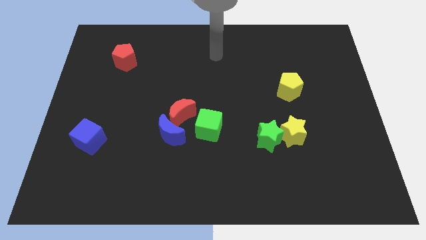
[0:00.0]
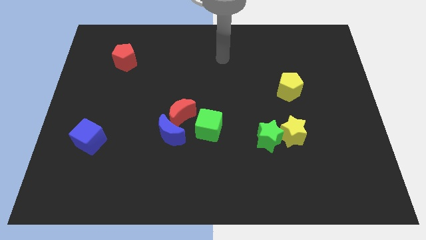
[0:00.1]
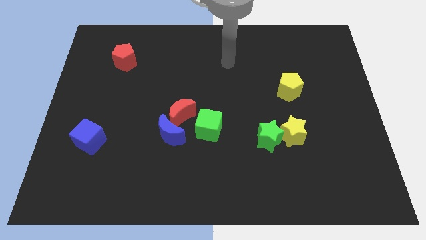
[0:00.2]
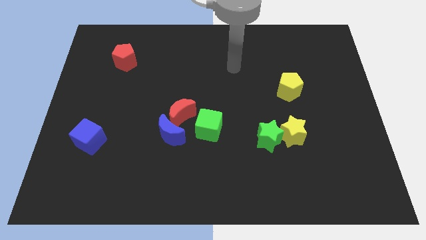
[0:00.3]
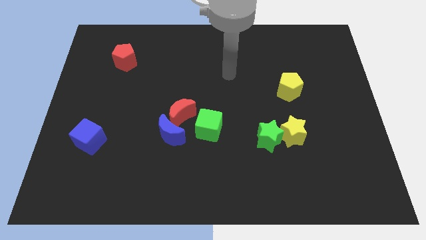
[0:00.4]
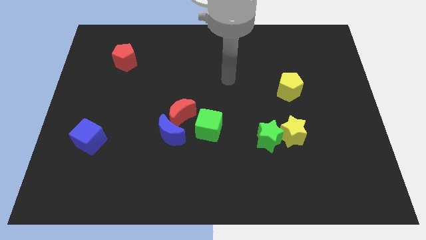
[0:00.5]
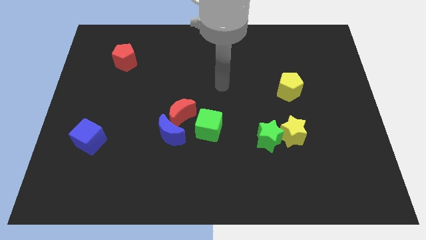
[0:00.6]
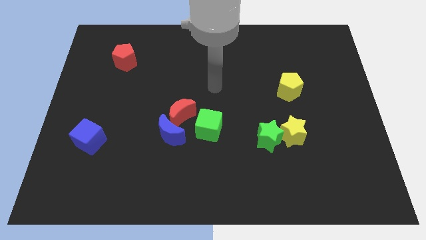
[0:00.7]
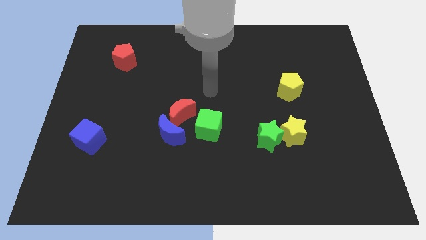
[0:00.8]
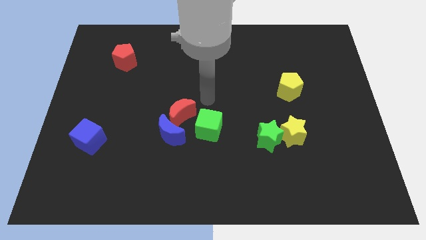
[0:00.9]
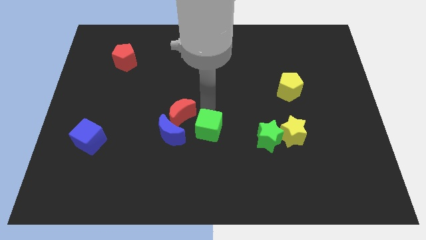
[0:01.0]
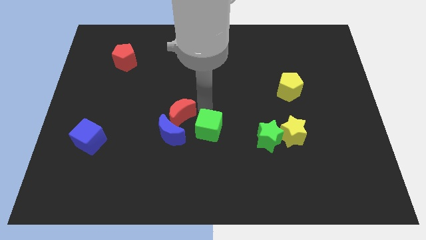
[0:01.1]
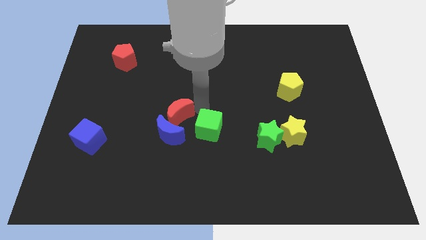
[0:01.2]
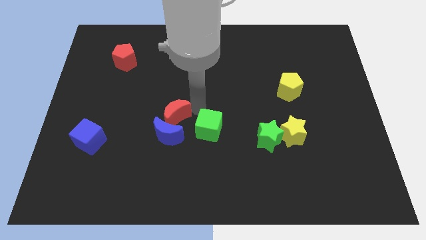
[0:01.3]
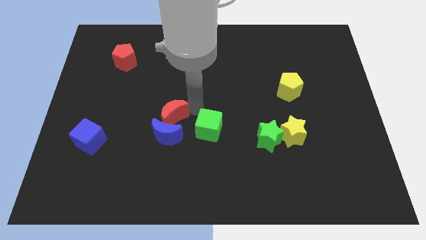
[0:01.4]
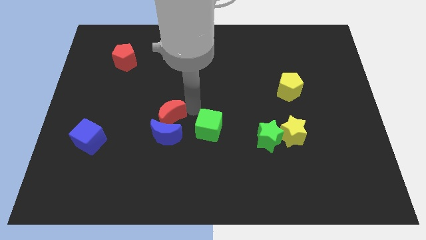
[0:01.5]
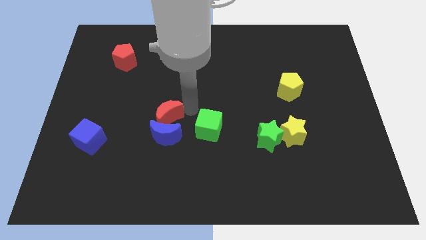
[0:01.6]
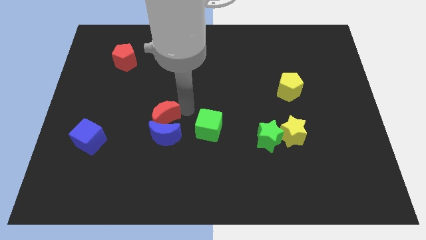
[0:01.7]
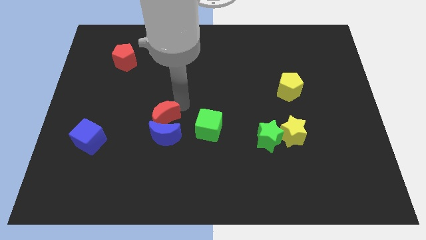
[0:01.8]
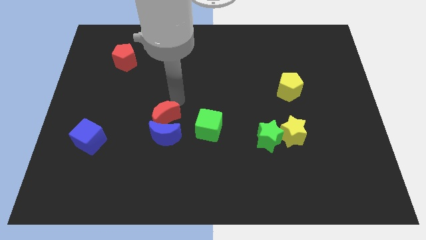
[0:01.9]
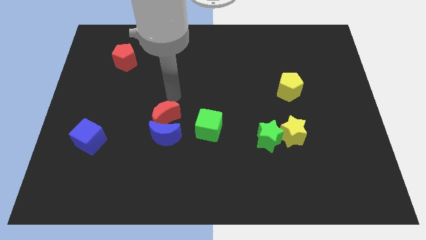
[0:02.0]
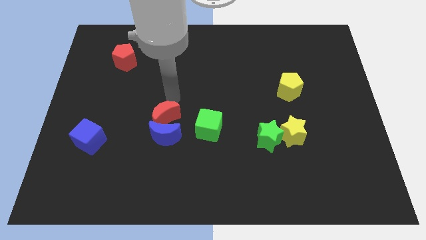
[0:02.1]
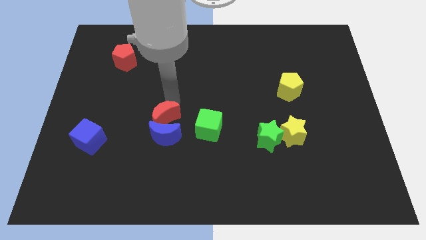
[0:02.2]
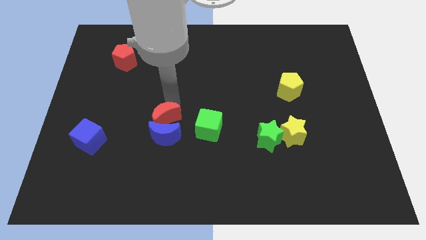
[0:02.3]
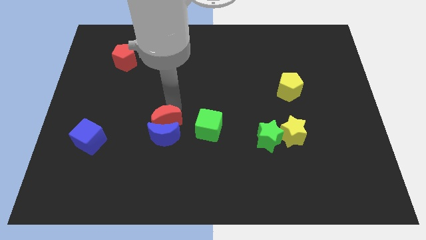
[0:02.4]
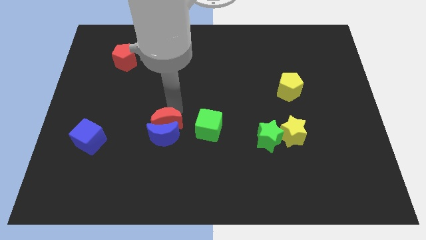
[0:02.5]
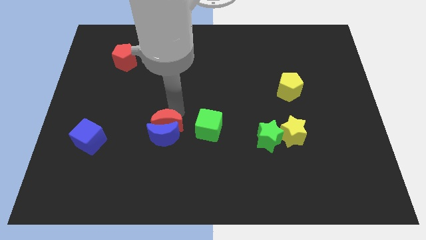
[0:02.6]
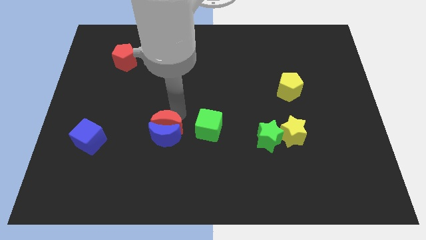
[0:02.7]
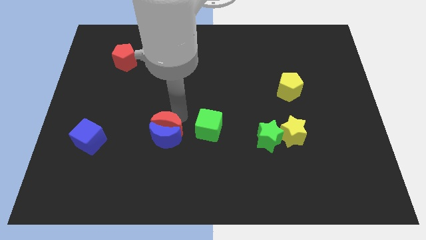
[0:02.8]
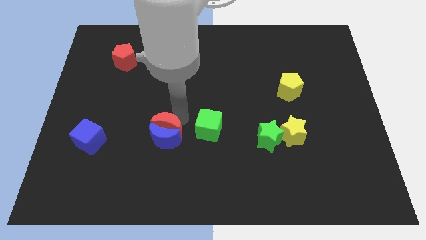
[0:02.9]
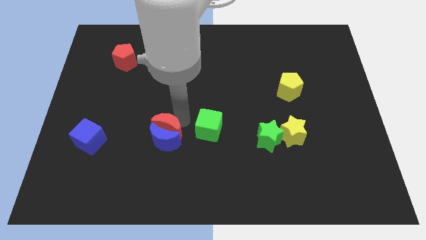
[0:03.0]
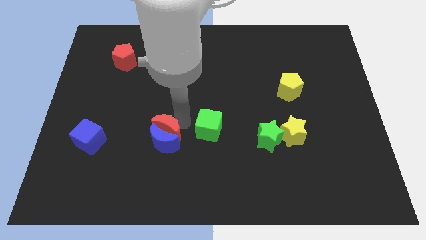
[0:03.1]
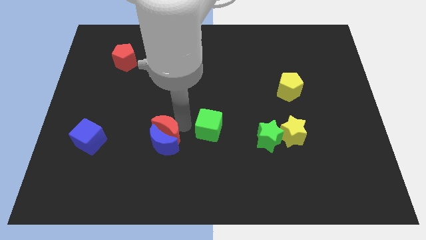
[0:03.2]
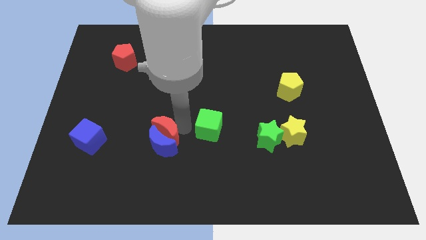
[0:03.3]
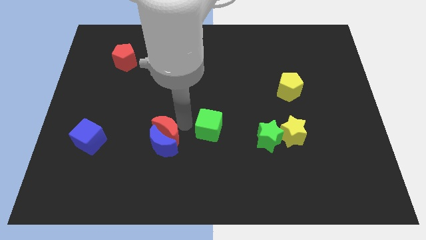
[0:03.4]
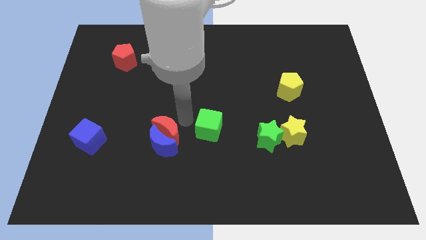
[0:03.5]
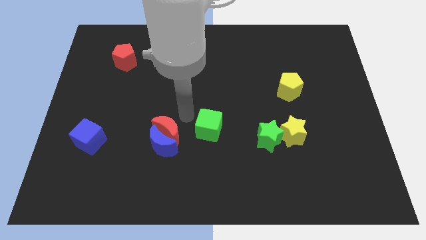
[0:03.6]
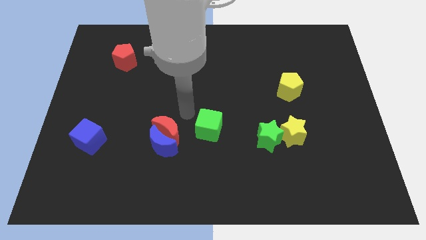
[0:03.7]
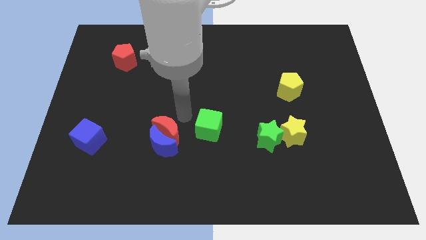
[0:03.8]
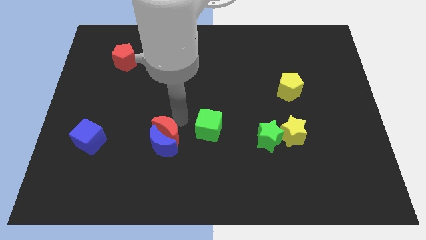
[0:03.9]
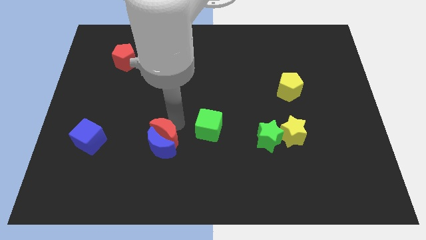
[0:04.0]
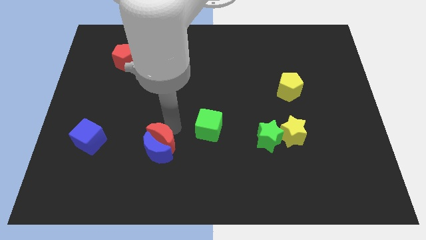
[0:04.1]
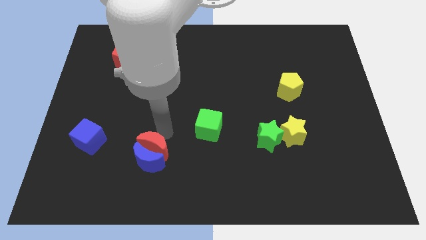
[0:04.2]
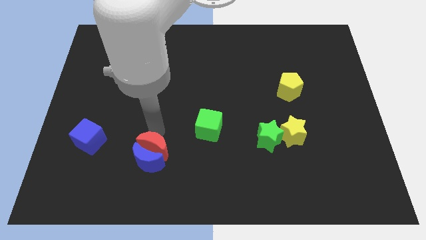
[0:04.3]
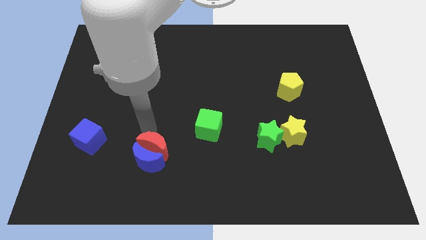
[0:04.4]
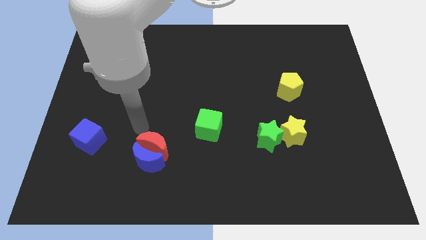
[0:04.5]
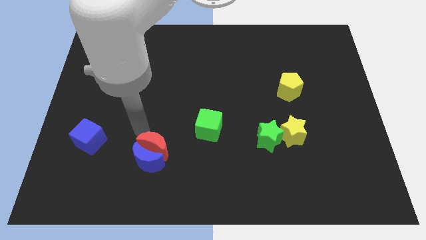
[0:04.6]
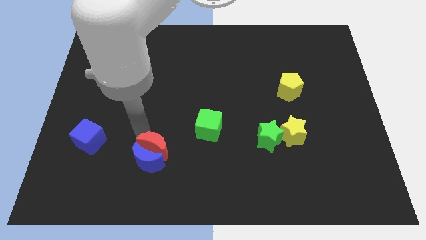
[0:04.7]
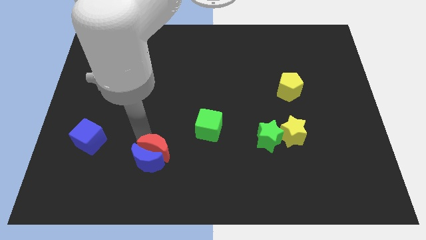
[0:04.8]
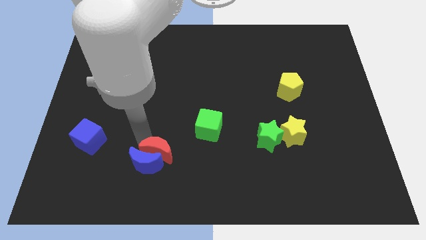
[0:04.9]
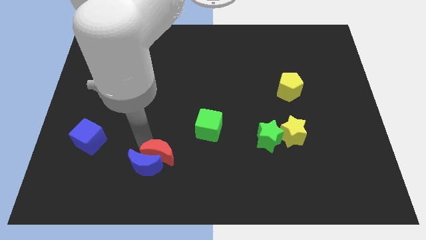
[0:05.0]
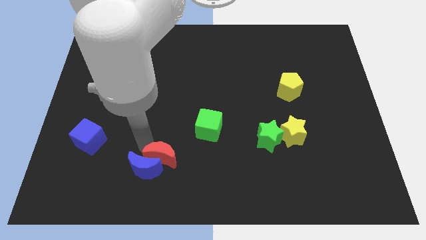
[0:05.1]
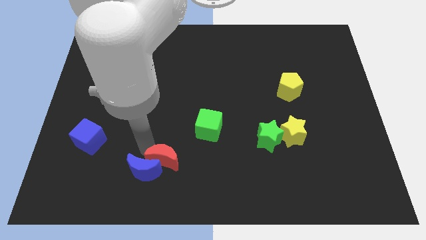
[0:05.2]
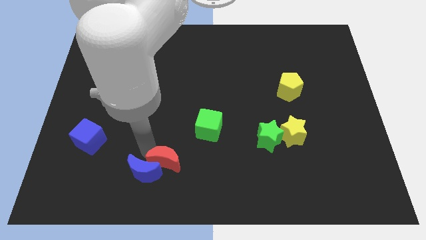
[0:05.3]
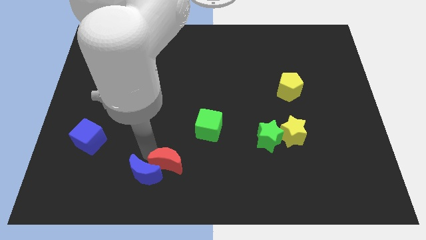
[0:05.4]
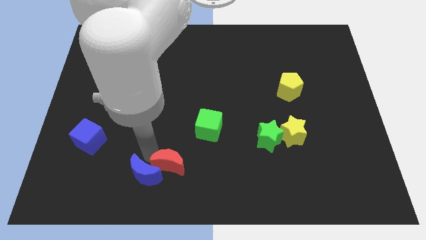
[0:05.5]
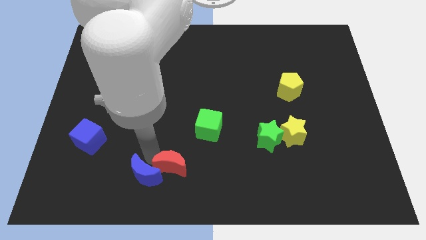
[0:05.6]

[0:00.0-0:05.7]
put the red moon to the bottom side

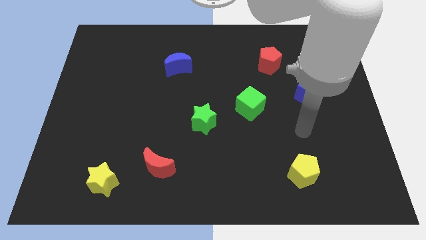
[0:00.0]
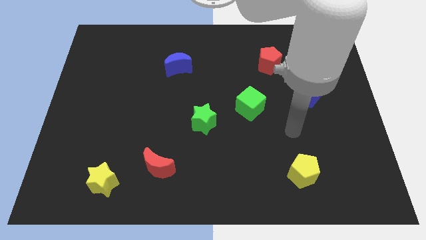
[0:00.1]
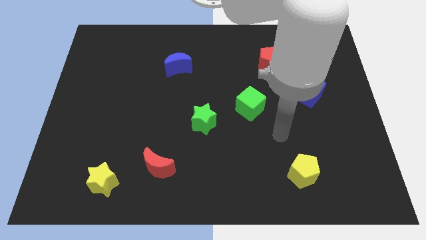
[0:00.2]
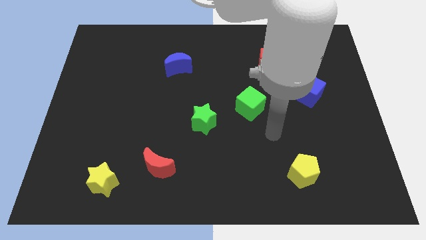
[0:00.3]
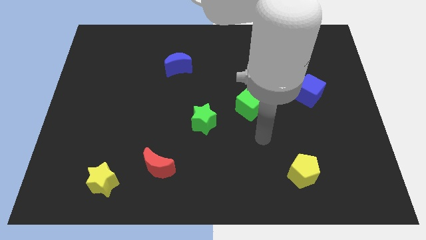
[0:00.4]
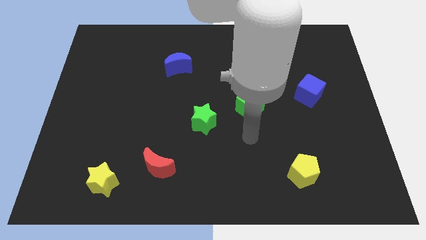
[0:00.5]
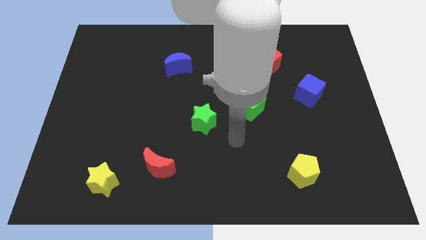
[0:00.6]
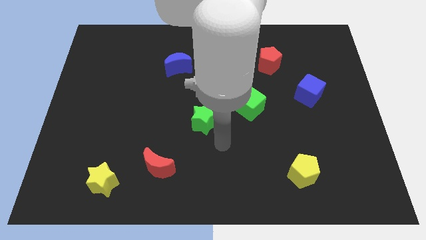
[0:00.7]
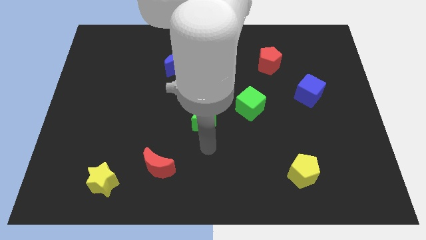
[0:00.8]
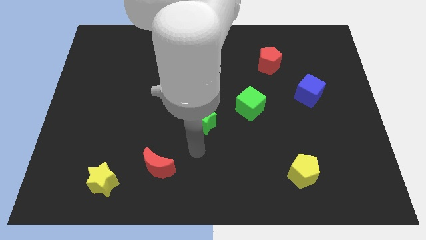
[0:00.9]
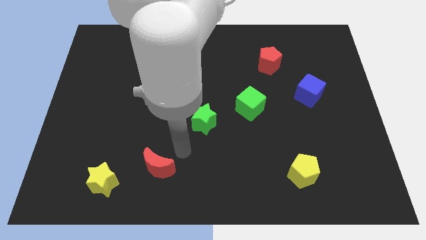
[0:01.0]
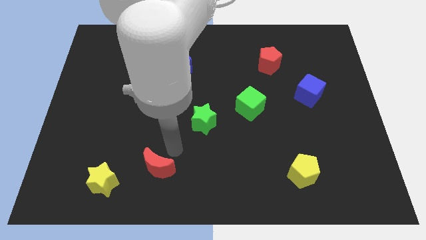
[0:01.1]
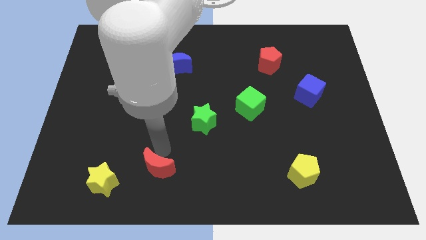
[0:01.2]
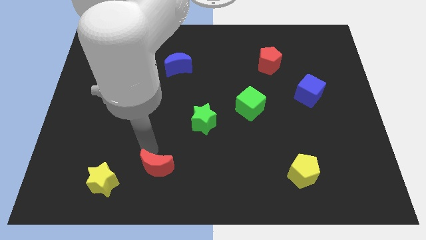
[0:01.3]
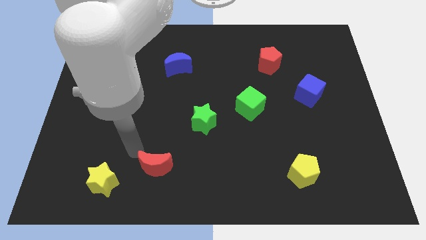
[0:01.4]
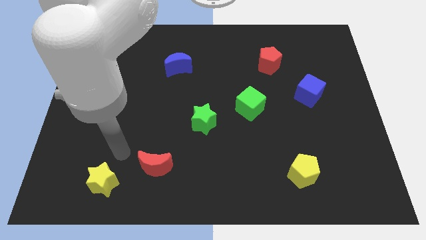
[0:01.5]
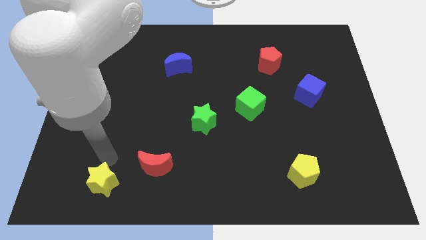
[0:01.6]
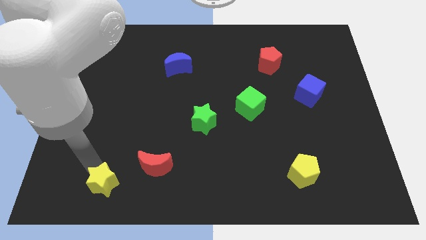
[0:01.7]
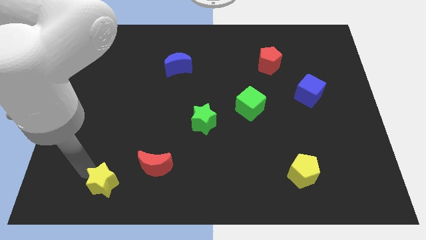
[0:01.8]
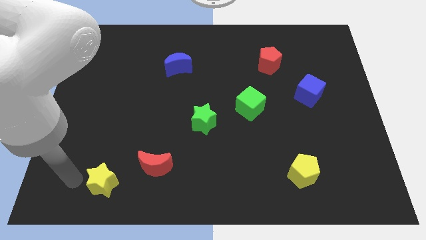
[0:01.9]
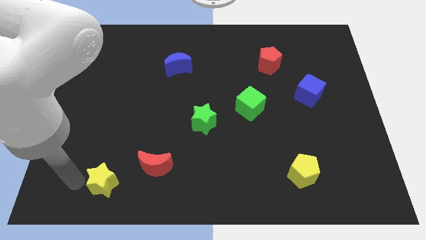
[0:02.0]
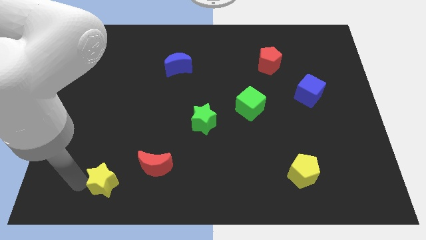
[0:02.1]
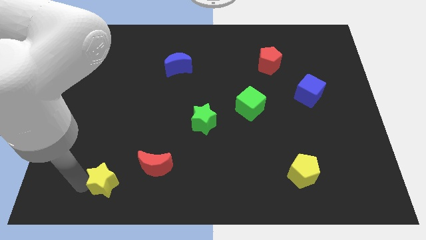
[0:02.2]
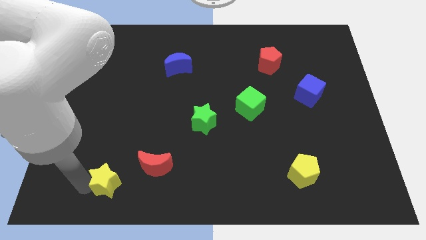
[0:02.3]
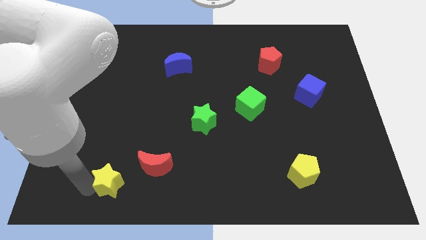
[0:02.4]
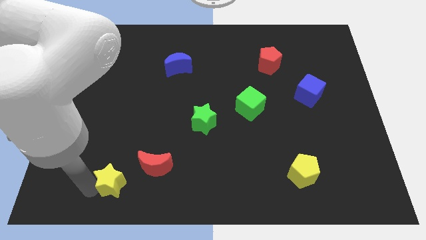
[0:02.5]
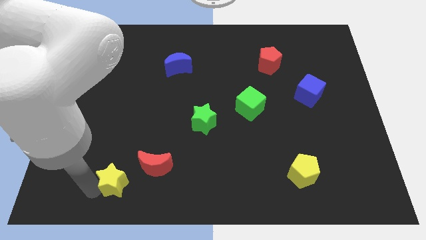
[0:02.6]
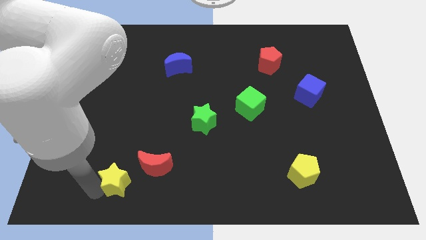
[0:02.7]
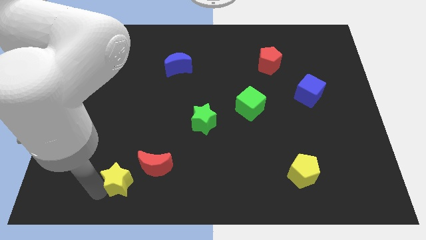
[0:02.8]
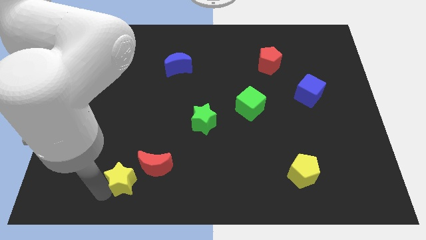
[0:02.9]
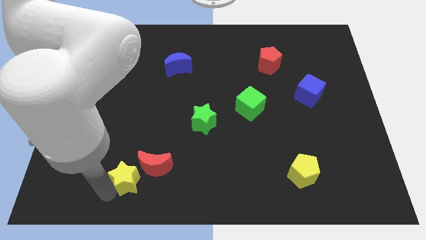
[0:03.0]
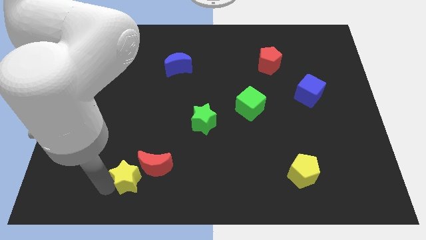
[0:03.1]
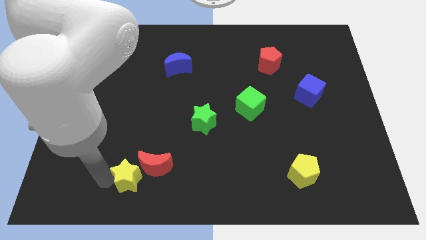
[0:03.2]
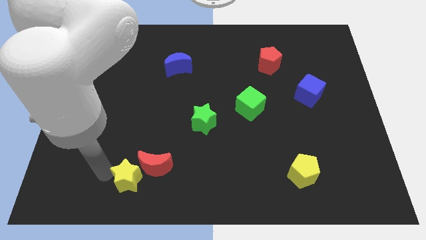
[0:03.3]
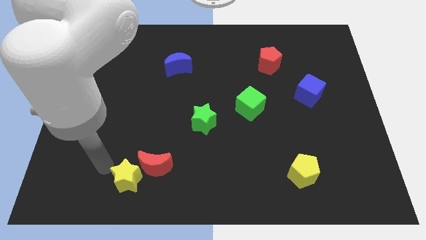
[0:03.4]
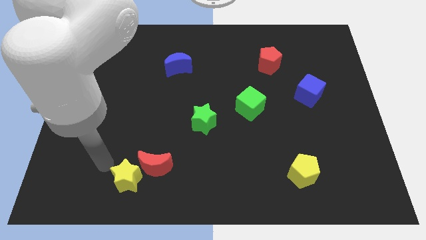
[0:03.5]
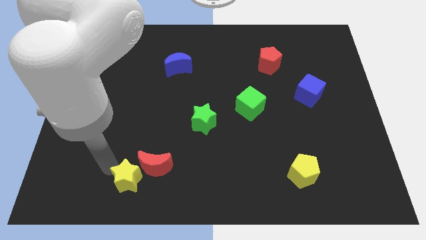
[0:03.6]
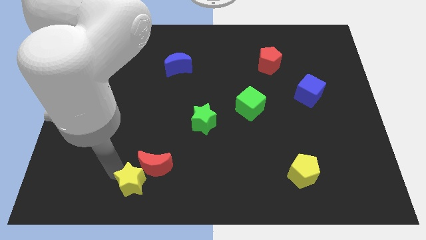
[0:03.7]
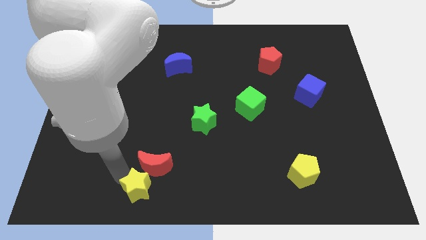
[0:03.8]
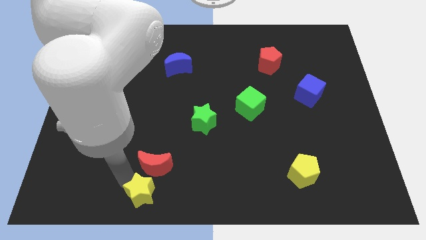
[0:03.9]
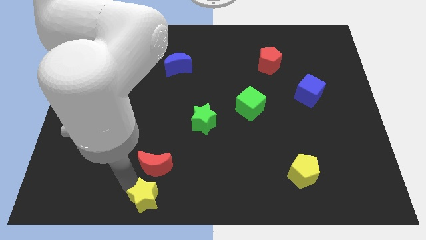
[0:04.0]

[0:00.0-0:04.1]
put the yellow star to the bottom
